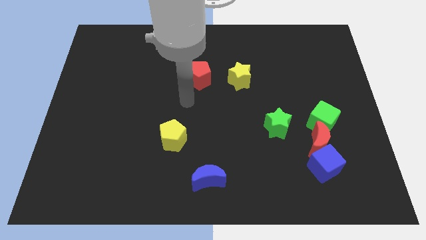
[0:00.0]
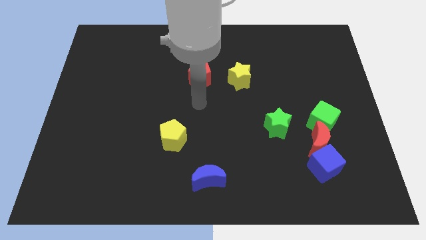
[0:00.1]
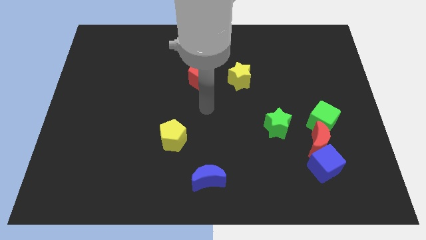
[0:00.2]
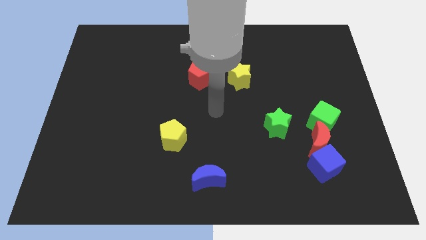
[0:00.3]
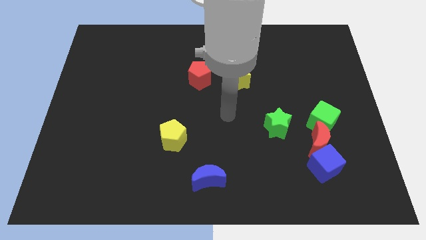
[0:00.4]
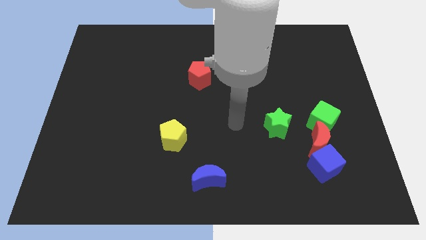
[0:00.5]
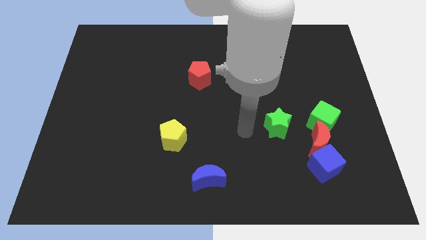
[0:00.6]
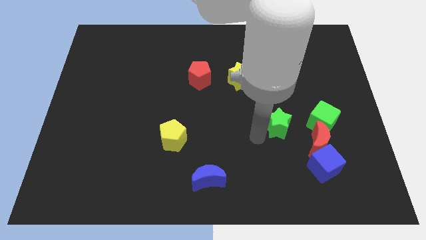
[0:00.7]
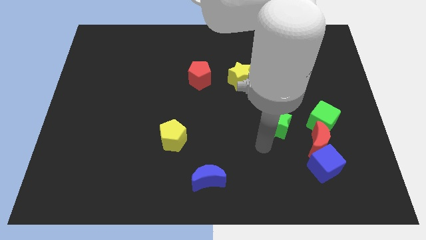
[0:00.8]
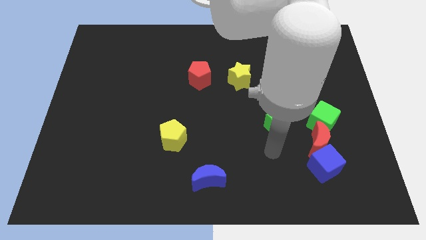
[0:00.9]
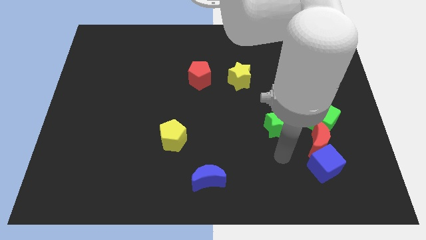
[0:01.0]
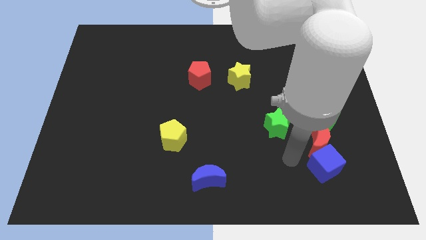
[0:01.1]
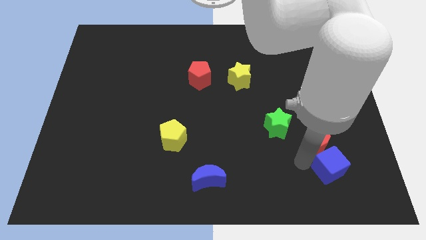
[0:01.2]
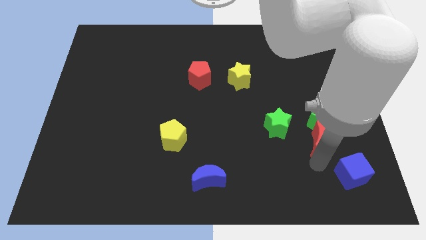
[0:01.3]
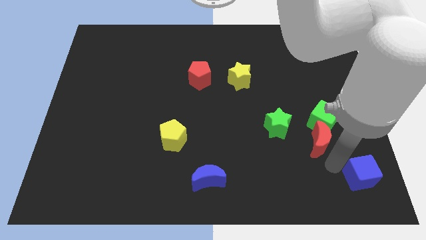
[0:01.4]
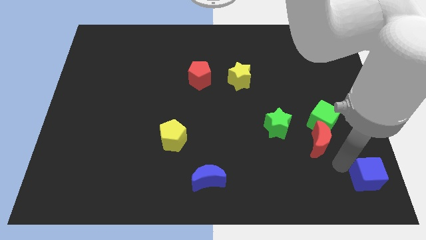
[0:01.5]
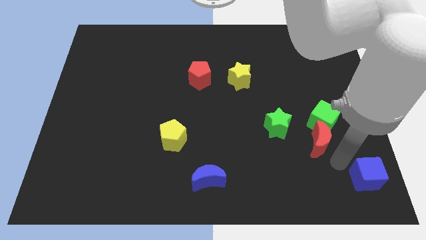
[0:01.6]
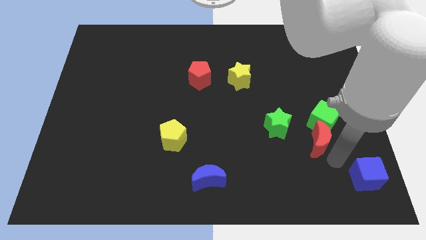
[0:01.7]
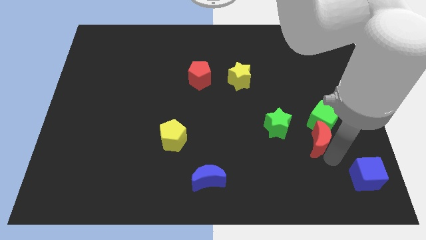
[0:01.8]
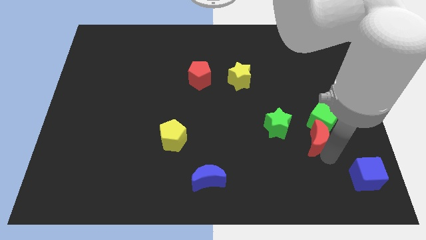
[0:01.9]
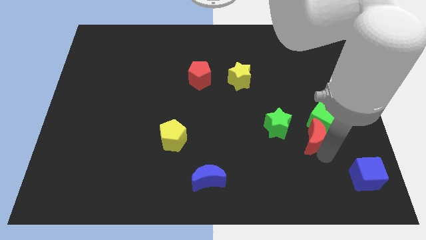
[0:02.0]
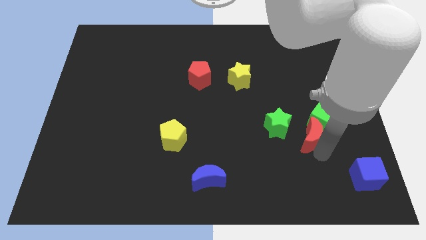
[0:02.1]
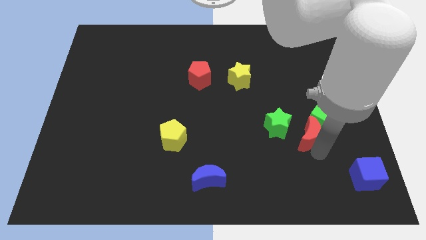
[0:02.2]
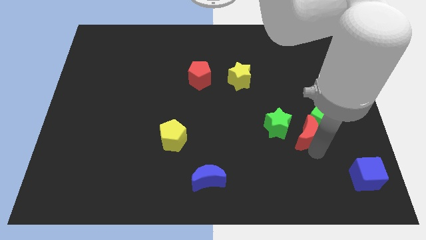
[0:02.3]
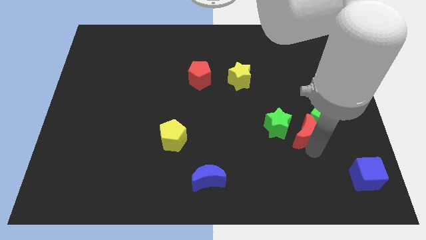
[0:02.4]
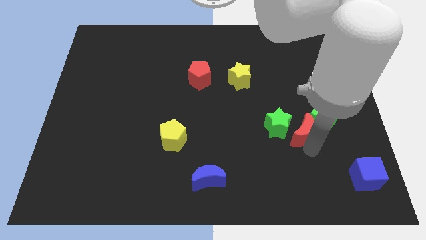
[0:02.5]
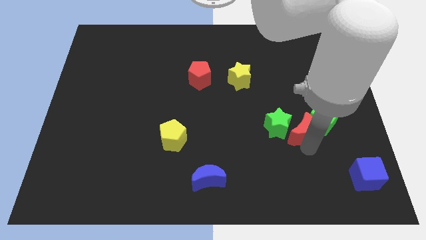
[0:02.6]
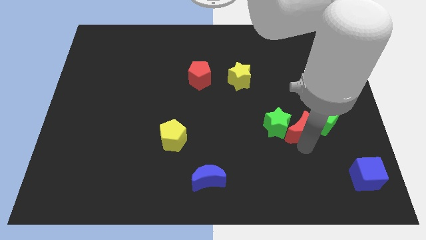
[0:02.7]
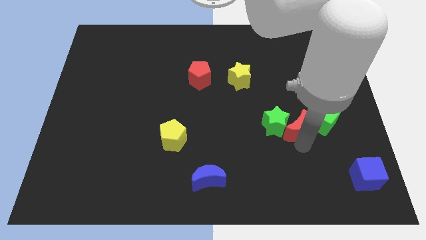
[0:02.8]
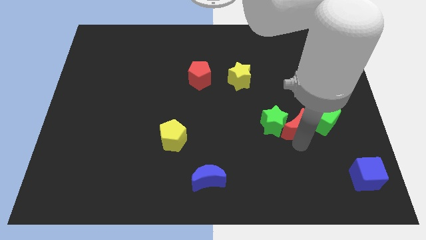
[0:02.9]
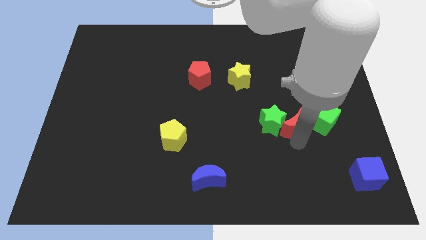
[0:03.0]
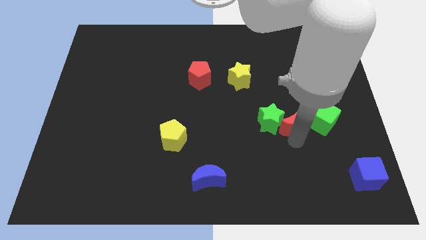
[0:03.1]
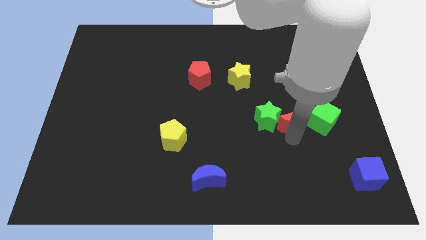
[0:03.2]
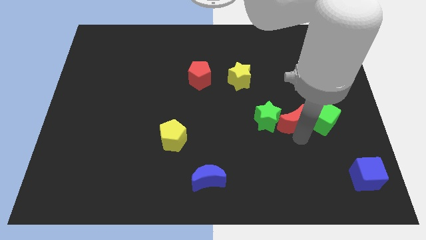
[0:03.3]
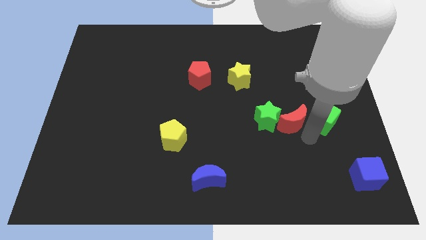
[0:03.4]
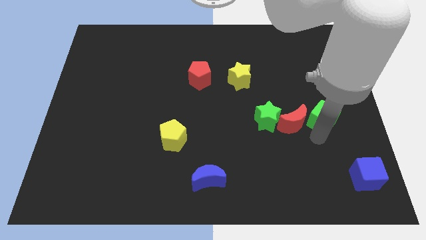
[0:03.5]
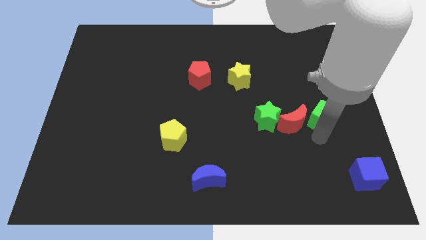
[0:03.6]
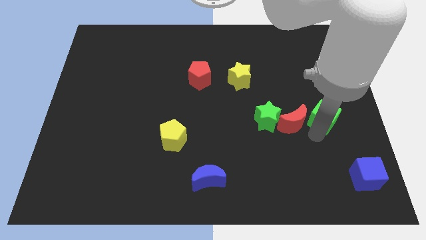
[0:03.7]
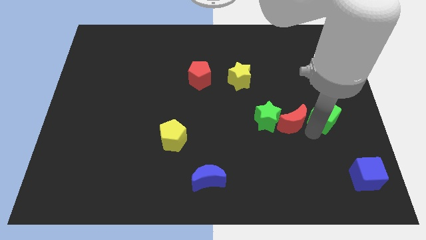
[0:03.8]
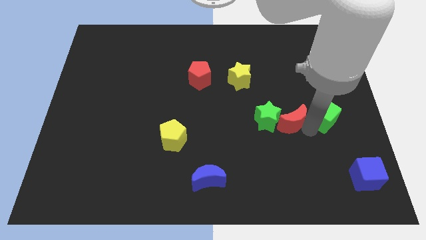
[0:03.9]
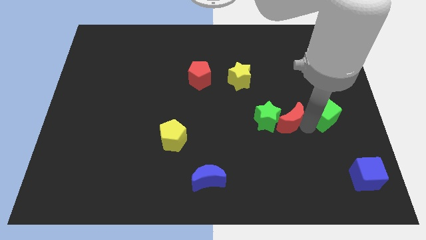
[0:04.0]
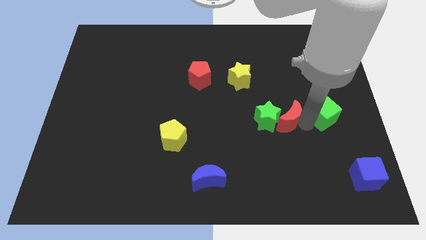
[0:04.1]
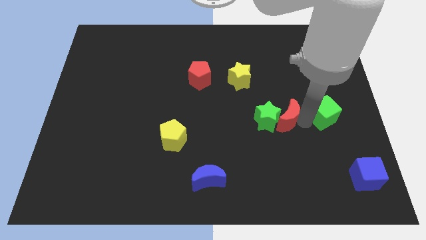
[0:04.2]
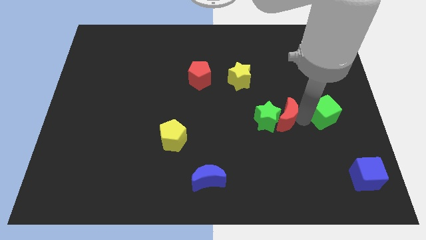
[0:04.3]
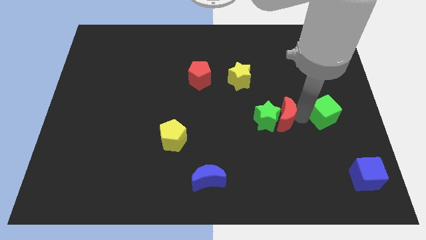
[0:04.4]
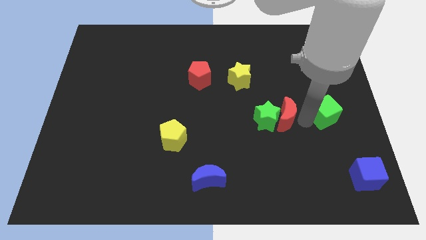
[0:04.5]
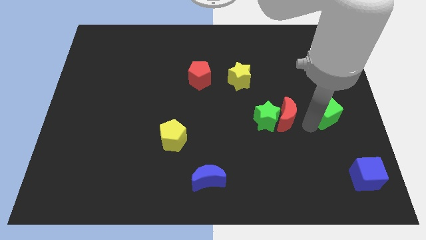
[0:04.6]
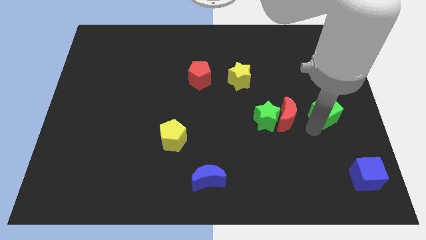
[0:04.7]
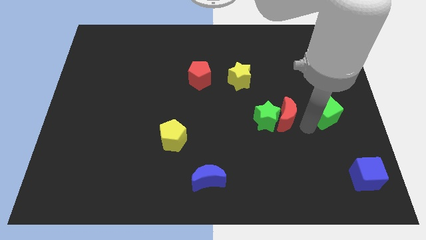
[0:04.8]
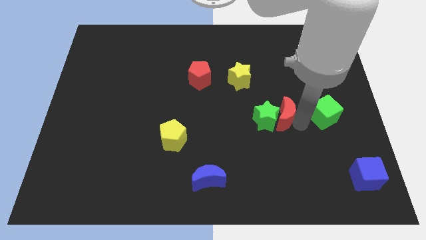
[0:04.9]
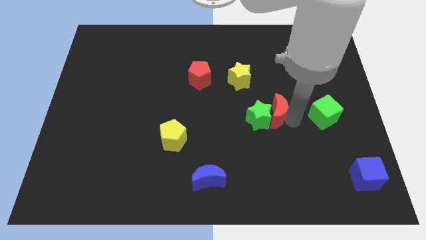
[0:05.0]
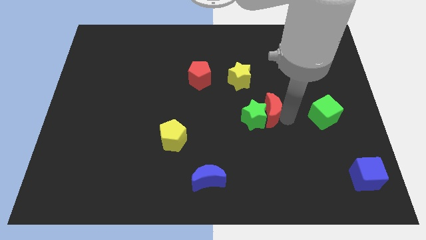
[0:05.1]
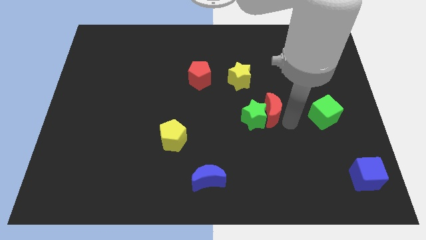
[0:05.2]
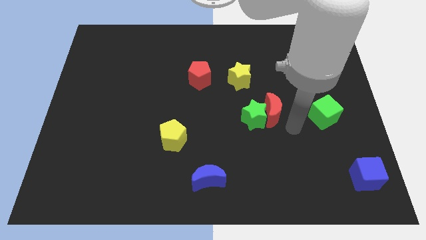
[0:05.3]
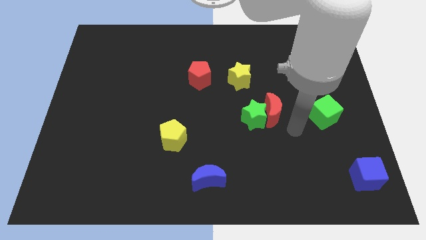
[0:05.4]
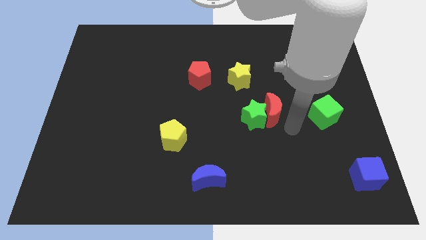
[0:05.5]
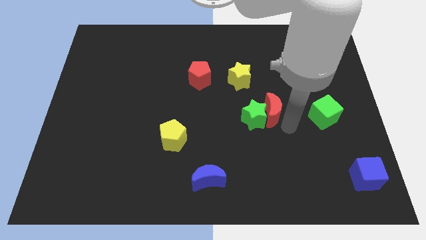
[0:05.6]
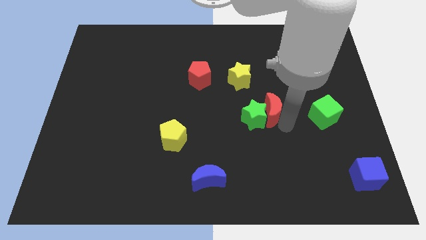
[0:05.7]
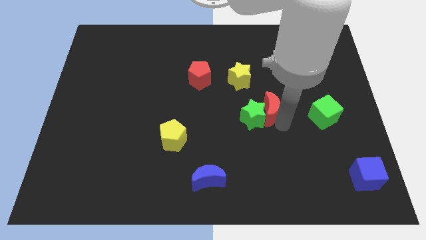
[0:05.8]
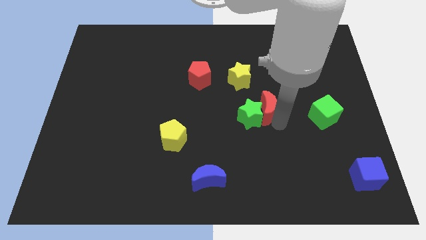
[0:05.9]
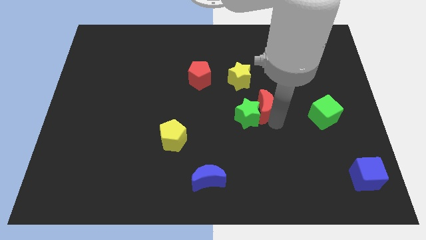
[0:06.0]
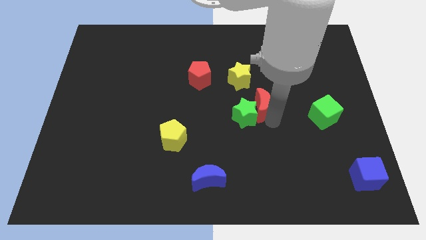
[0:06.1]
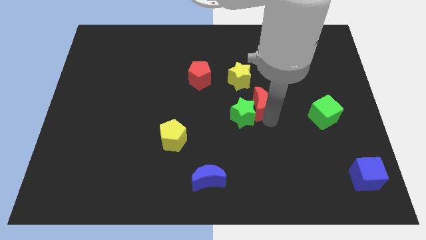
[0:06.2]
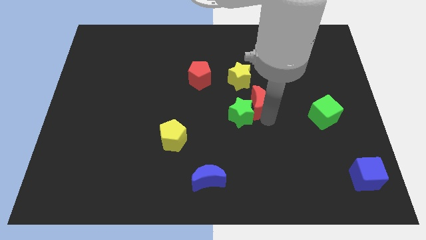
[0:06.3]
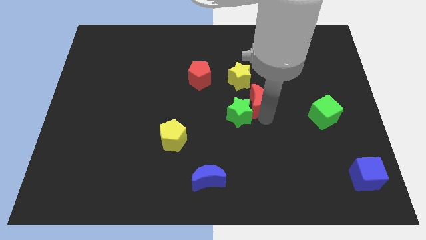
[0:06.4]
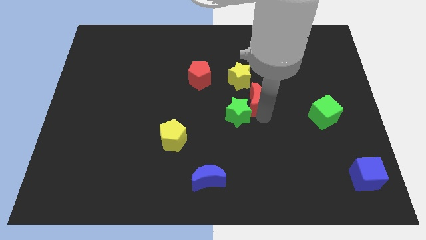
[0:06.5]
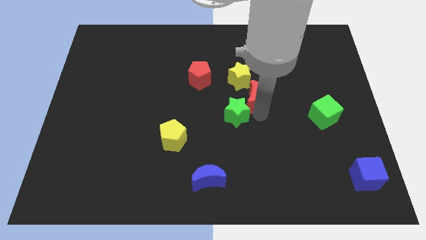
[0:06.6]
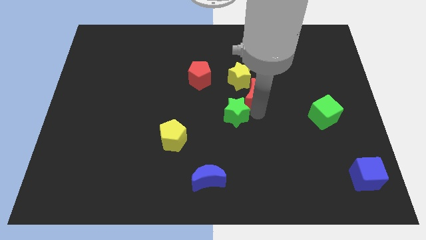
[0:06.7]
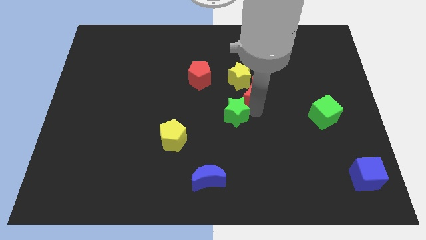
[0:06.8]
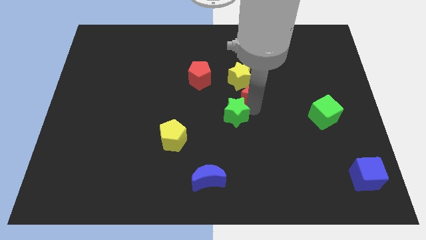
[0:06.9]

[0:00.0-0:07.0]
slide the red moon close to the yellow star
